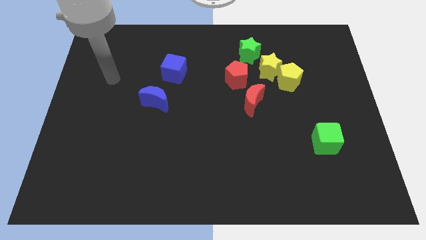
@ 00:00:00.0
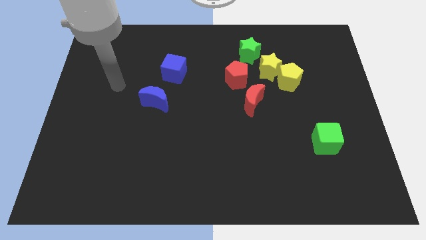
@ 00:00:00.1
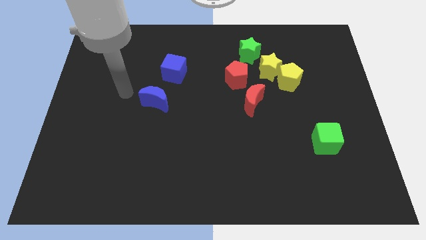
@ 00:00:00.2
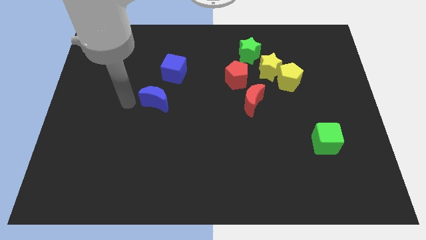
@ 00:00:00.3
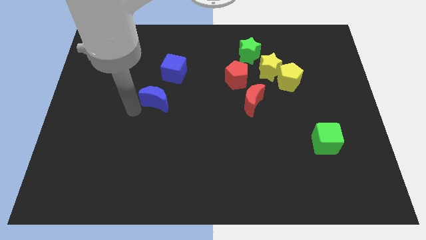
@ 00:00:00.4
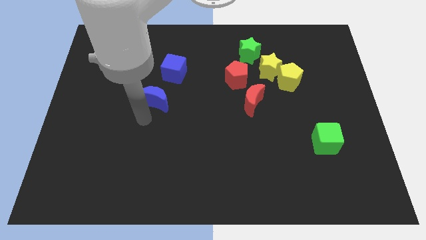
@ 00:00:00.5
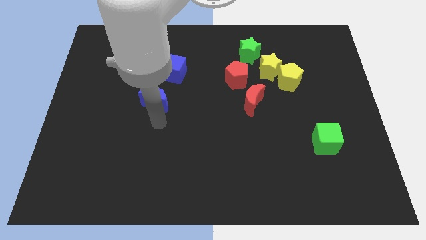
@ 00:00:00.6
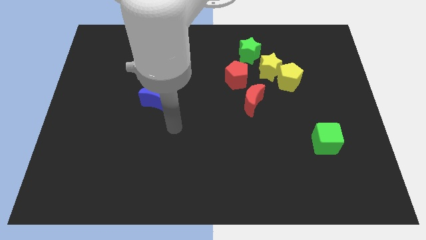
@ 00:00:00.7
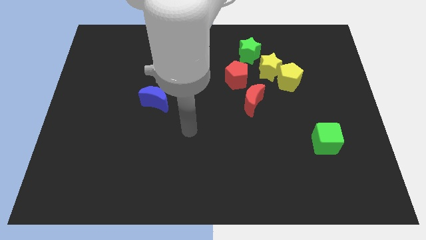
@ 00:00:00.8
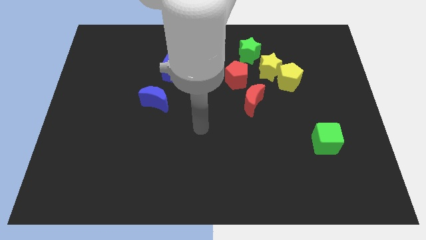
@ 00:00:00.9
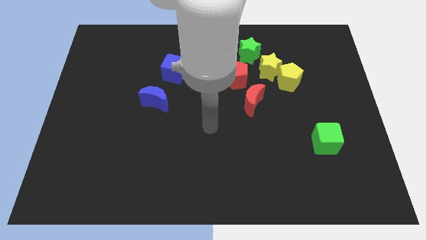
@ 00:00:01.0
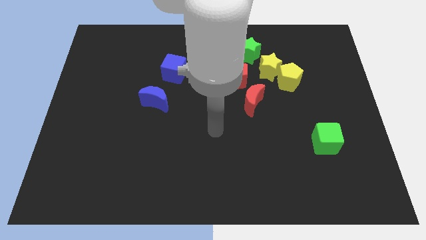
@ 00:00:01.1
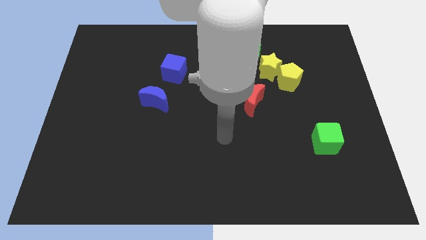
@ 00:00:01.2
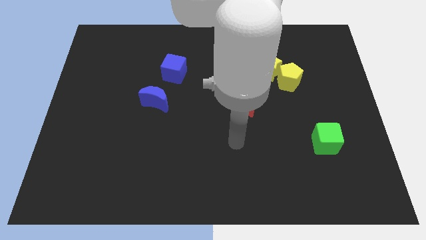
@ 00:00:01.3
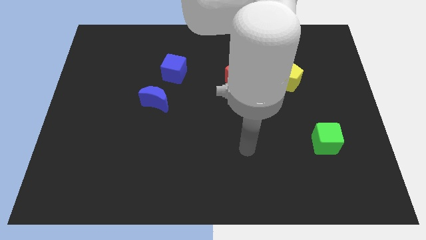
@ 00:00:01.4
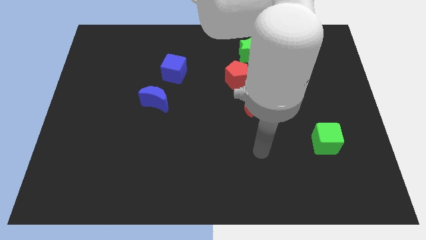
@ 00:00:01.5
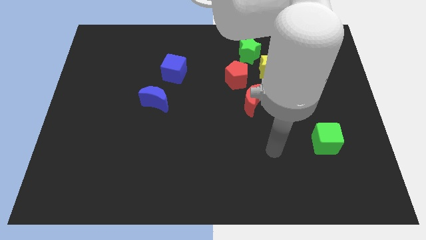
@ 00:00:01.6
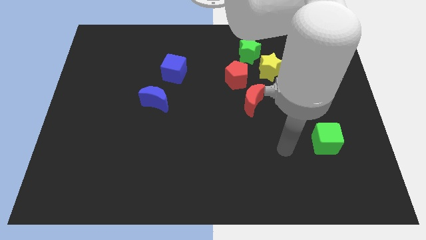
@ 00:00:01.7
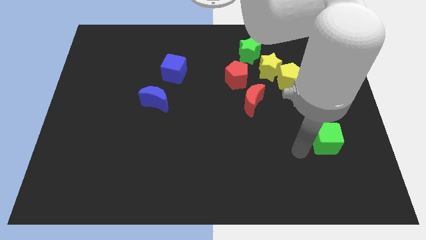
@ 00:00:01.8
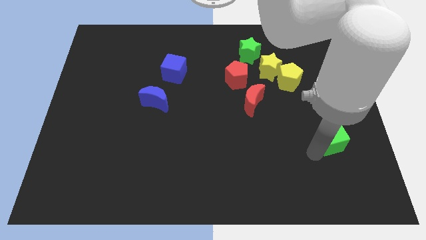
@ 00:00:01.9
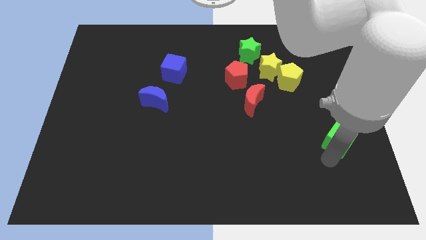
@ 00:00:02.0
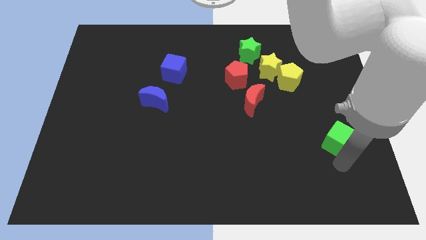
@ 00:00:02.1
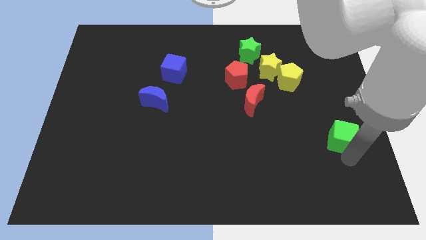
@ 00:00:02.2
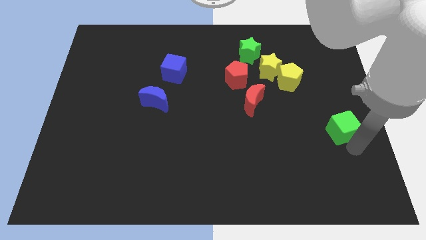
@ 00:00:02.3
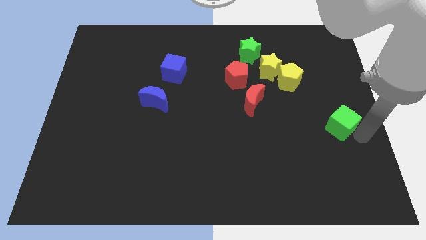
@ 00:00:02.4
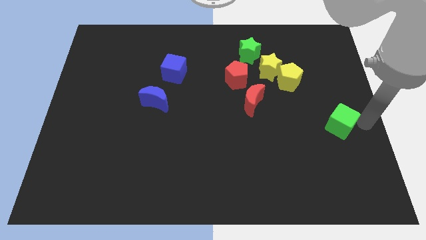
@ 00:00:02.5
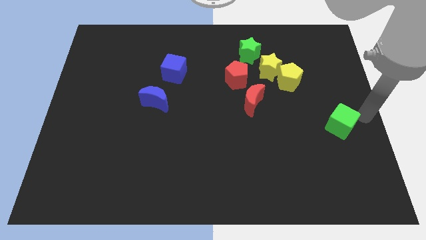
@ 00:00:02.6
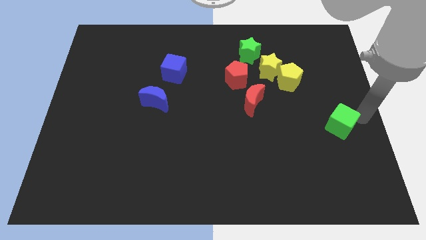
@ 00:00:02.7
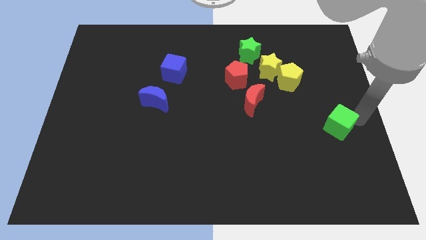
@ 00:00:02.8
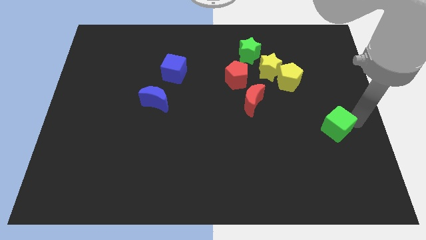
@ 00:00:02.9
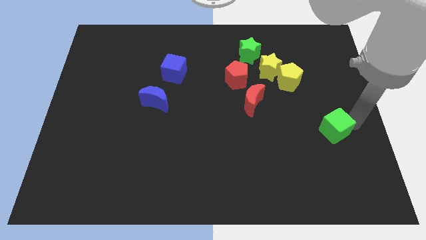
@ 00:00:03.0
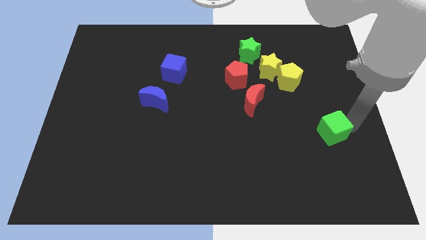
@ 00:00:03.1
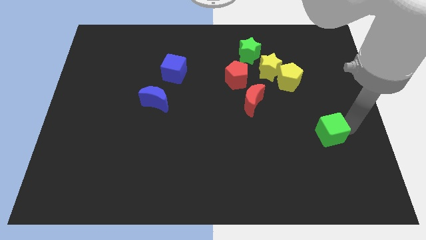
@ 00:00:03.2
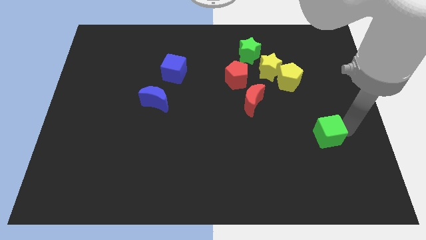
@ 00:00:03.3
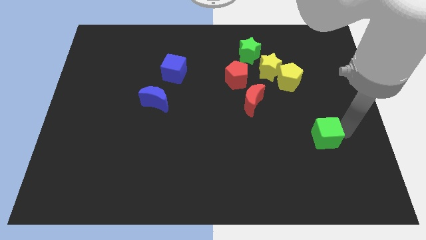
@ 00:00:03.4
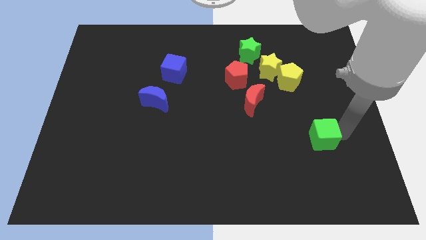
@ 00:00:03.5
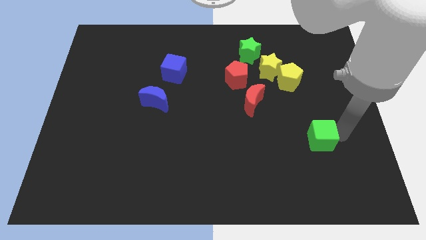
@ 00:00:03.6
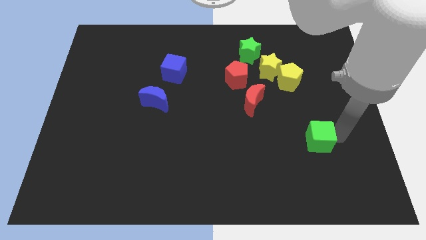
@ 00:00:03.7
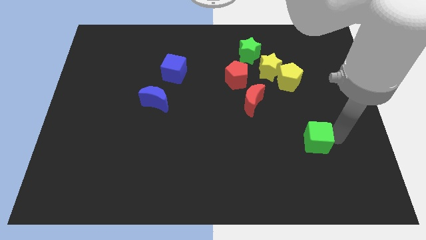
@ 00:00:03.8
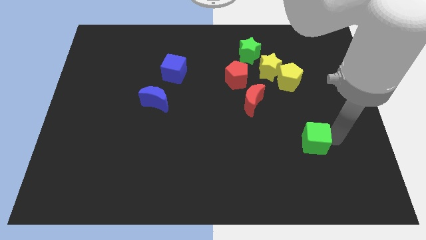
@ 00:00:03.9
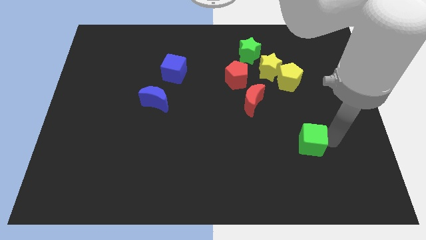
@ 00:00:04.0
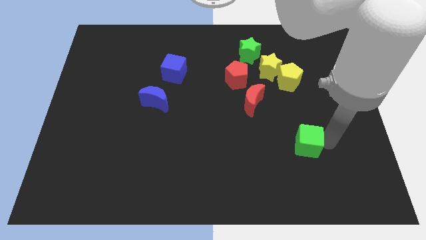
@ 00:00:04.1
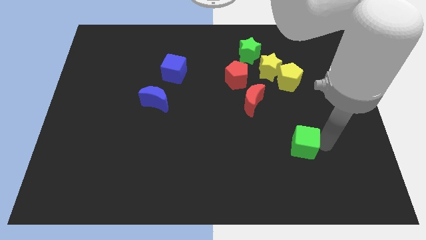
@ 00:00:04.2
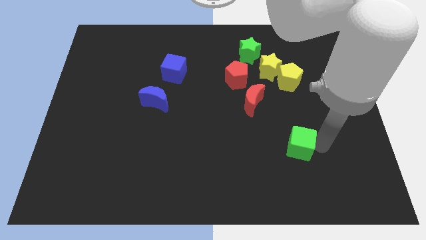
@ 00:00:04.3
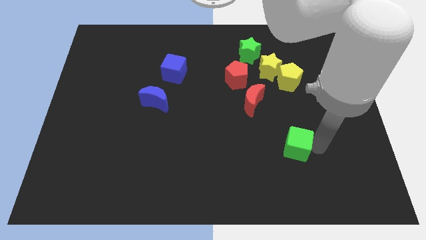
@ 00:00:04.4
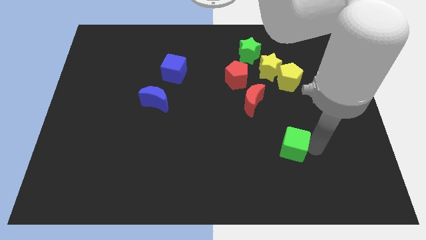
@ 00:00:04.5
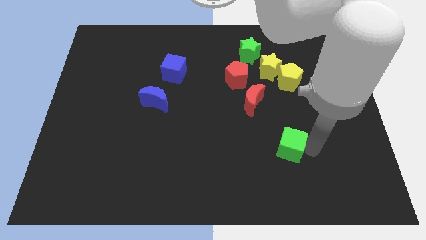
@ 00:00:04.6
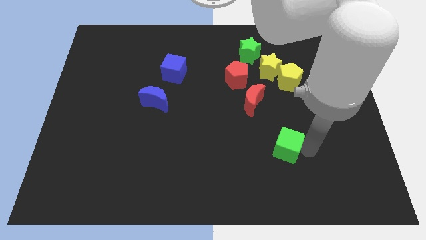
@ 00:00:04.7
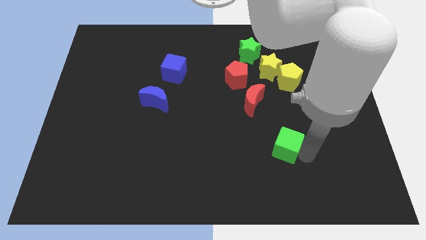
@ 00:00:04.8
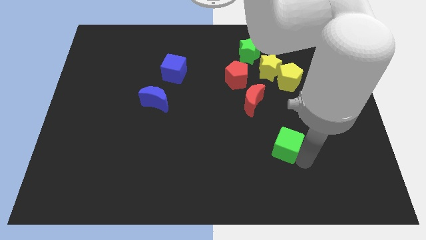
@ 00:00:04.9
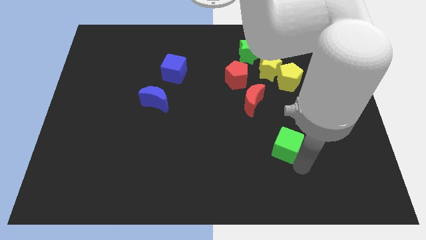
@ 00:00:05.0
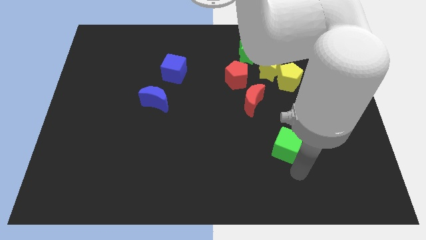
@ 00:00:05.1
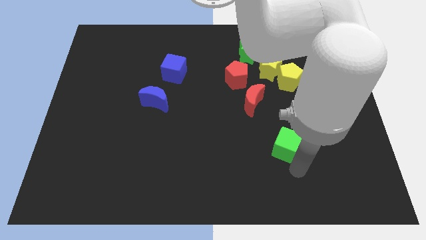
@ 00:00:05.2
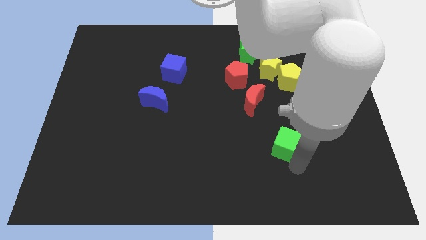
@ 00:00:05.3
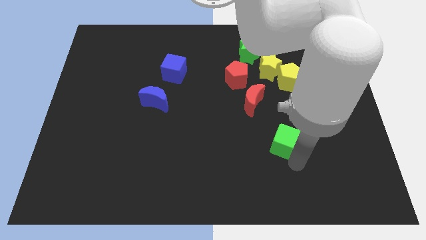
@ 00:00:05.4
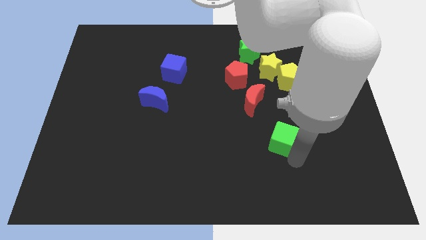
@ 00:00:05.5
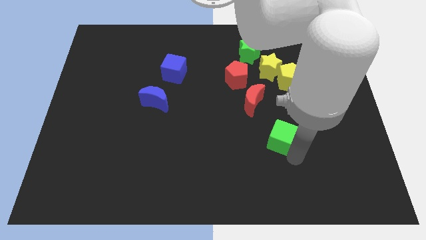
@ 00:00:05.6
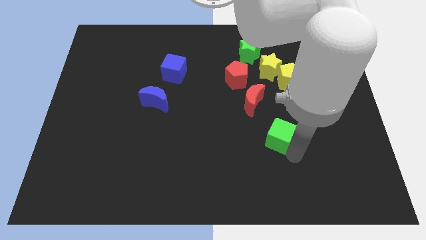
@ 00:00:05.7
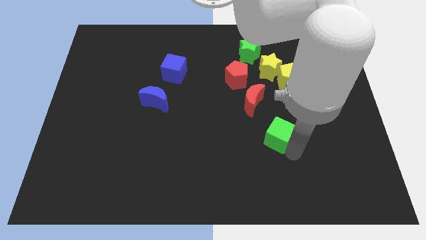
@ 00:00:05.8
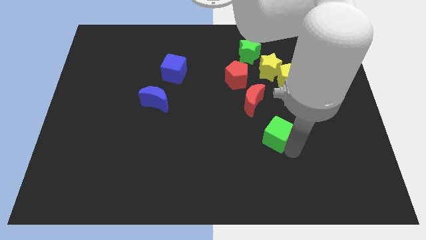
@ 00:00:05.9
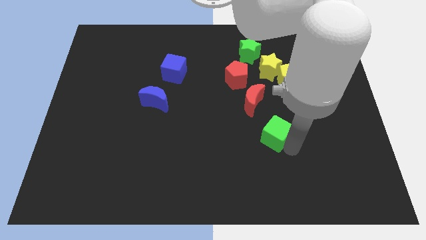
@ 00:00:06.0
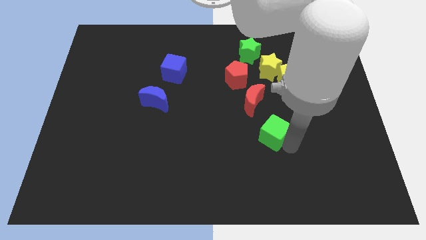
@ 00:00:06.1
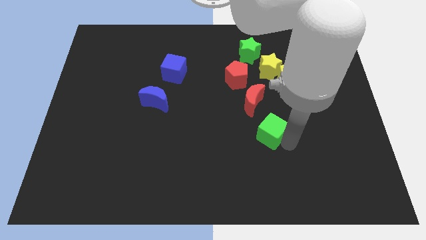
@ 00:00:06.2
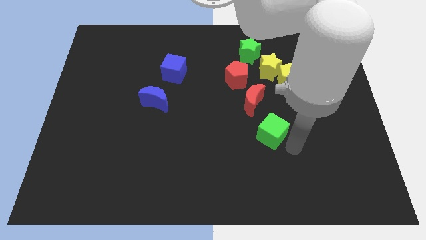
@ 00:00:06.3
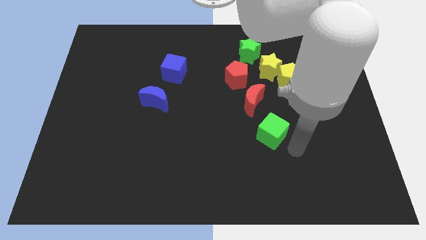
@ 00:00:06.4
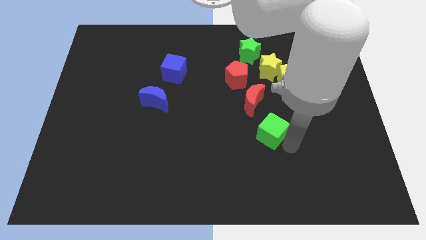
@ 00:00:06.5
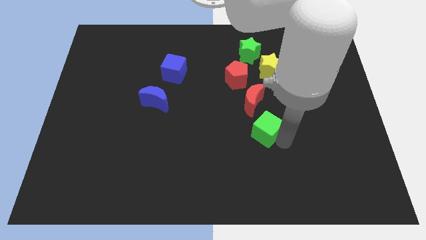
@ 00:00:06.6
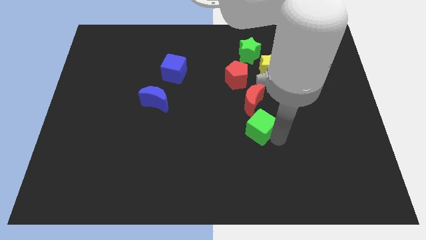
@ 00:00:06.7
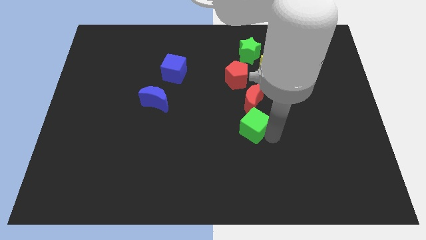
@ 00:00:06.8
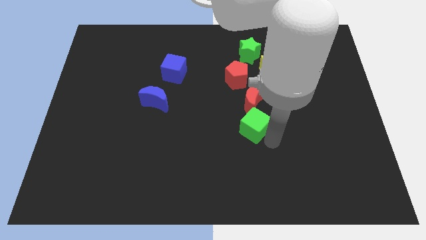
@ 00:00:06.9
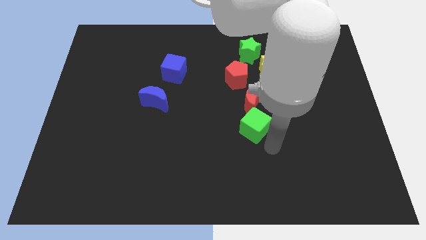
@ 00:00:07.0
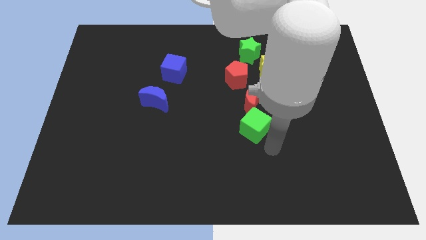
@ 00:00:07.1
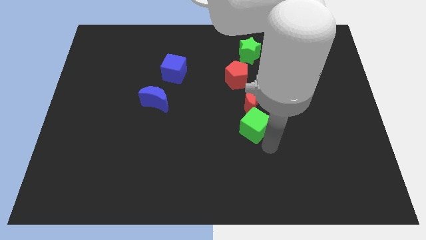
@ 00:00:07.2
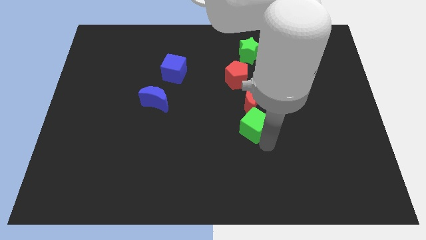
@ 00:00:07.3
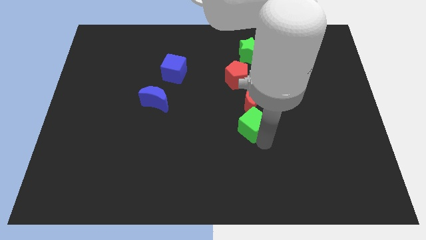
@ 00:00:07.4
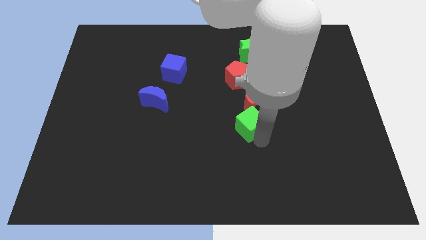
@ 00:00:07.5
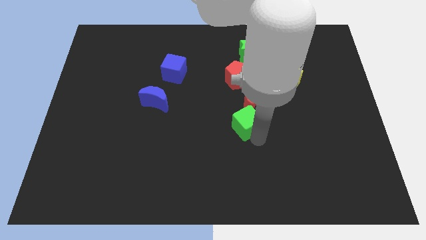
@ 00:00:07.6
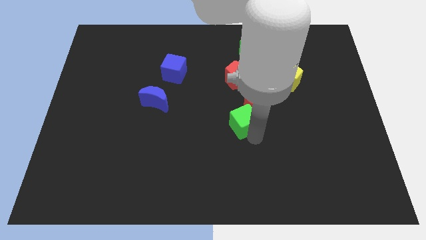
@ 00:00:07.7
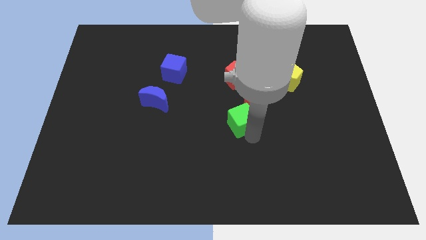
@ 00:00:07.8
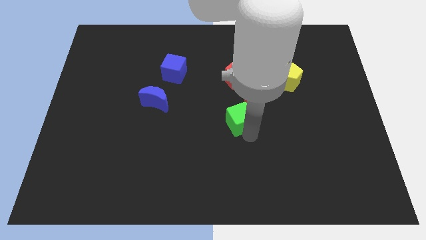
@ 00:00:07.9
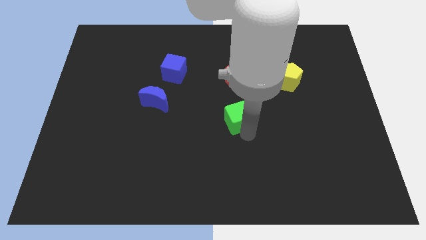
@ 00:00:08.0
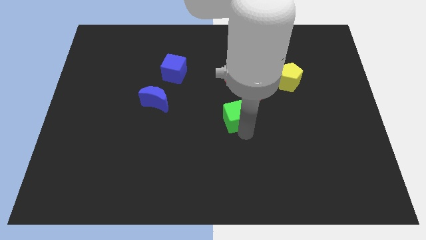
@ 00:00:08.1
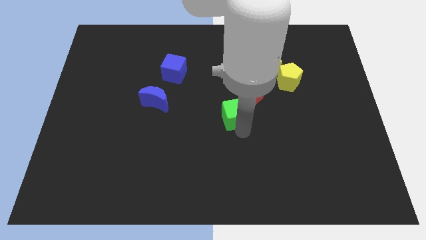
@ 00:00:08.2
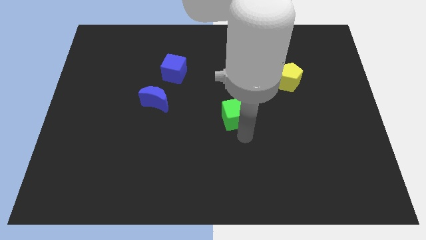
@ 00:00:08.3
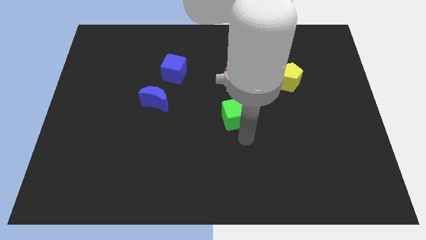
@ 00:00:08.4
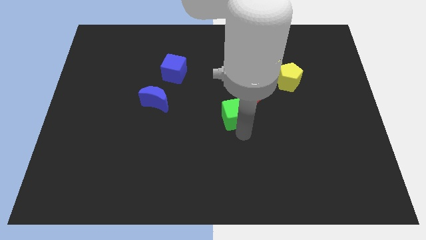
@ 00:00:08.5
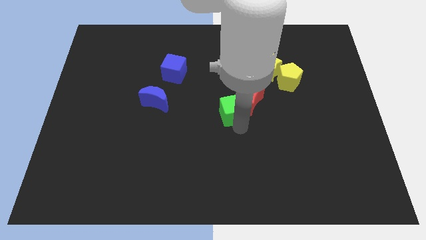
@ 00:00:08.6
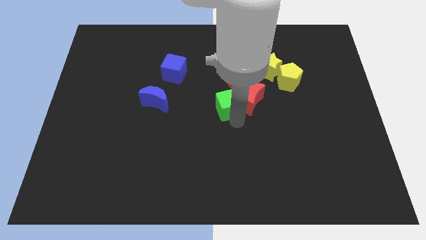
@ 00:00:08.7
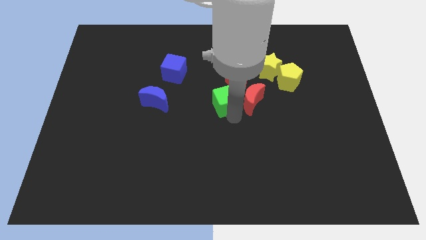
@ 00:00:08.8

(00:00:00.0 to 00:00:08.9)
push the green cube diagonally up and left
